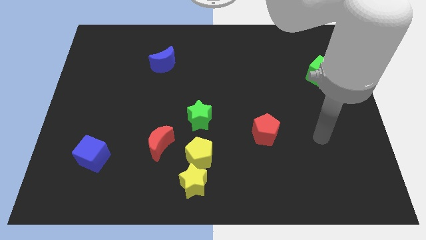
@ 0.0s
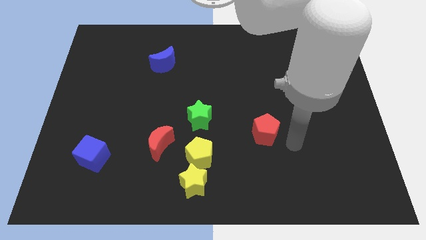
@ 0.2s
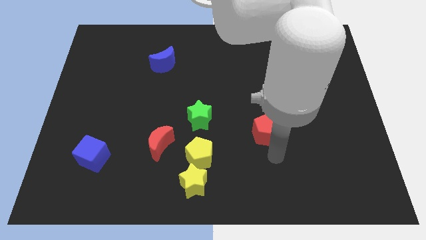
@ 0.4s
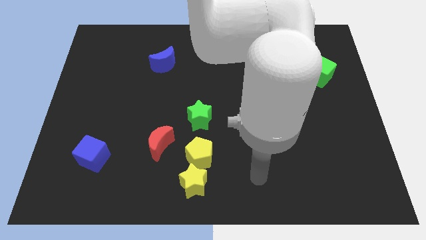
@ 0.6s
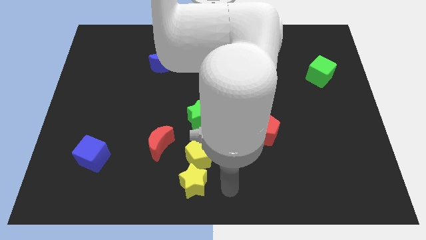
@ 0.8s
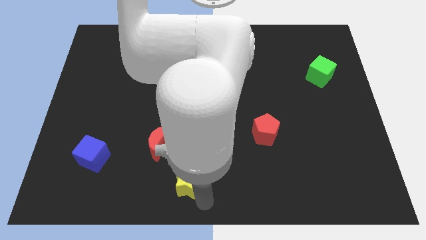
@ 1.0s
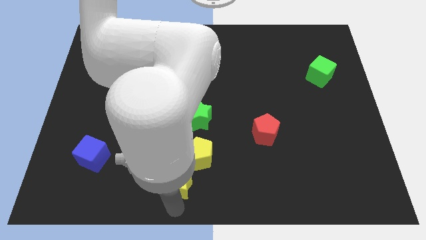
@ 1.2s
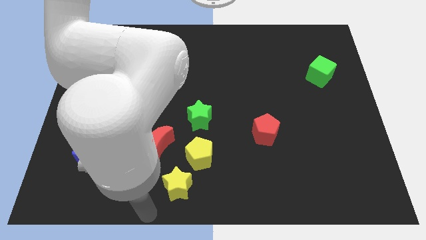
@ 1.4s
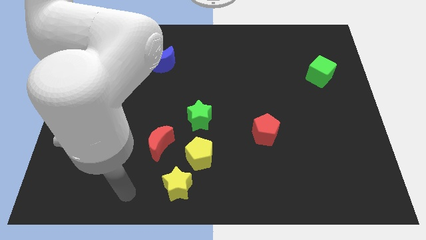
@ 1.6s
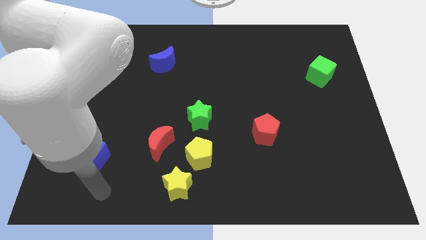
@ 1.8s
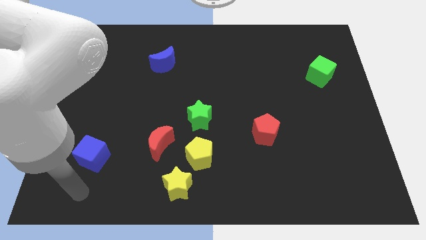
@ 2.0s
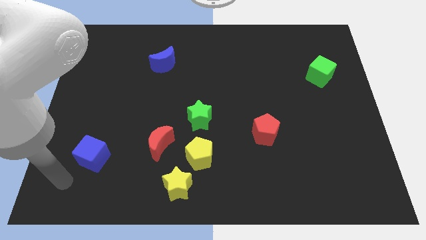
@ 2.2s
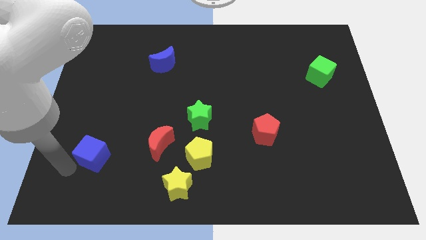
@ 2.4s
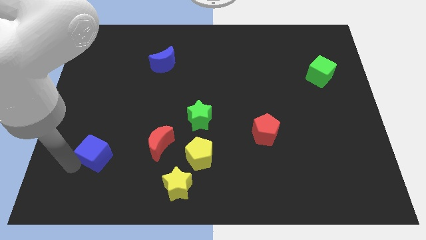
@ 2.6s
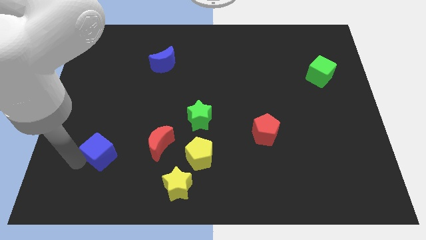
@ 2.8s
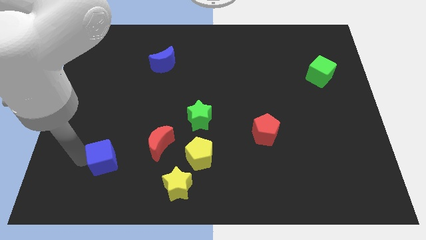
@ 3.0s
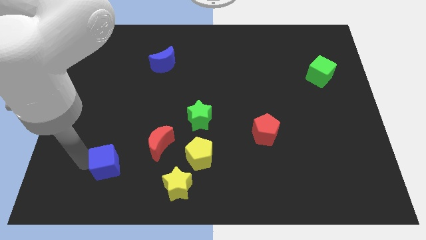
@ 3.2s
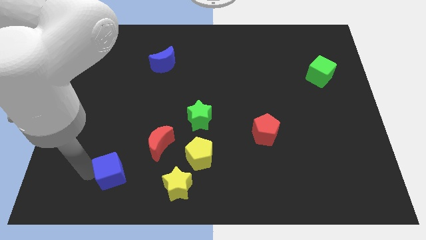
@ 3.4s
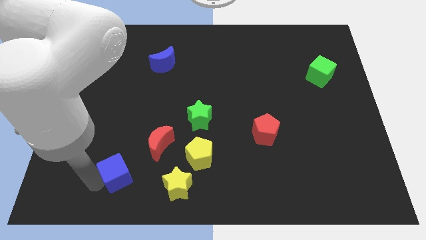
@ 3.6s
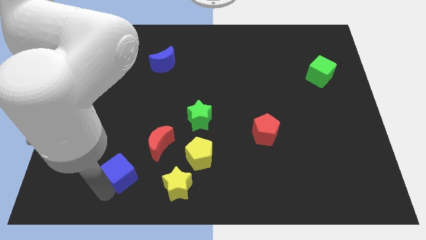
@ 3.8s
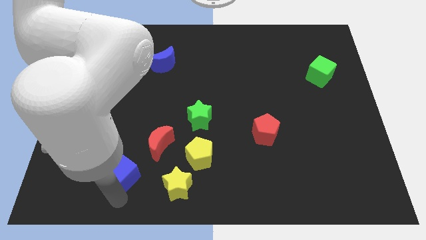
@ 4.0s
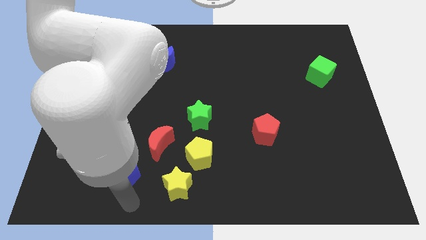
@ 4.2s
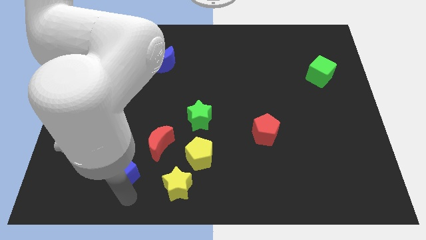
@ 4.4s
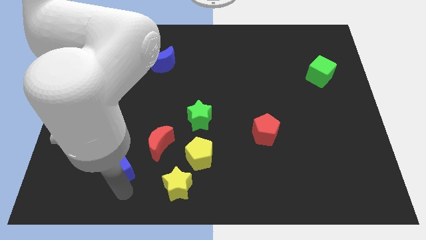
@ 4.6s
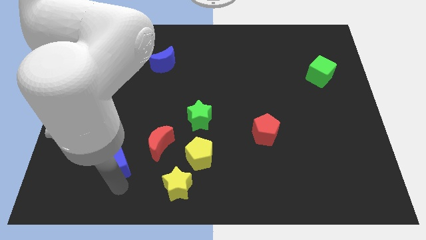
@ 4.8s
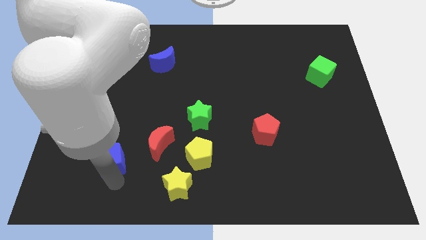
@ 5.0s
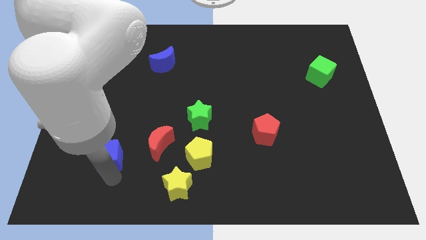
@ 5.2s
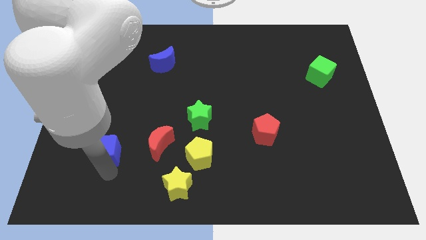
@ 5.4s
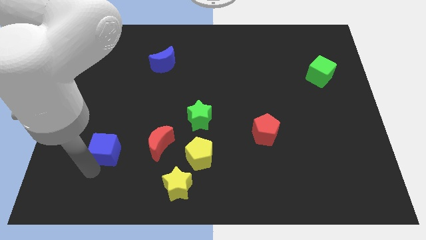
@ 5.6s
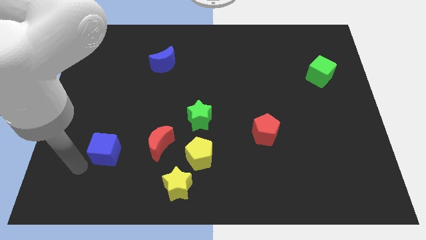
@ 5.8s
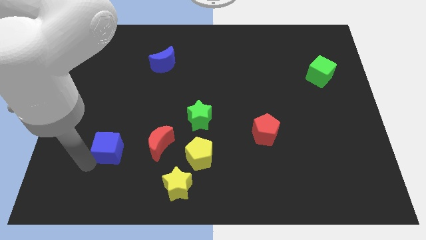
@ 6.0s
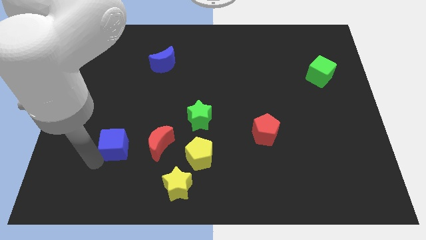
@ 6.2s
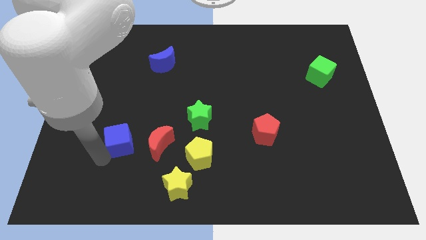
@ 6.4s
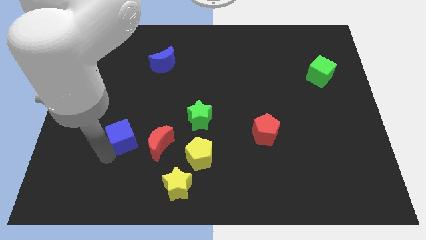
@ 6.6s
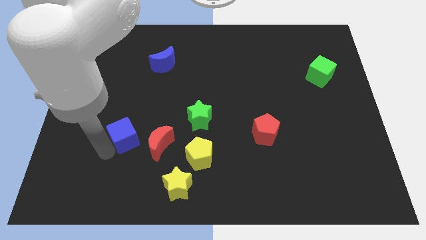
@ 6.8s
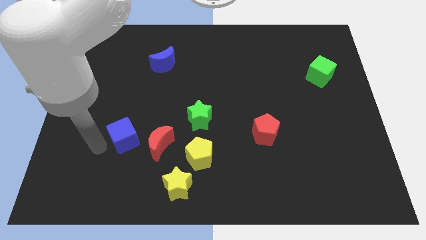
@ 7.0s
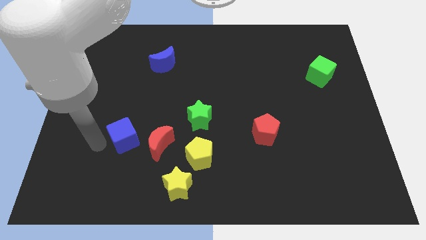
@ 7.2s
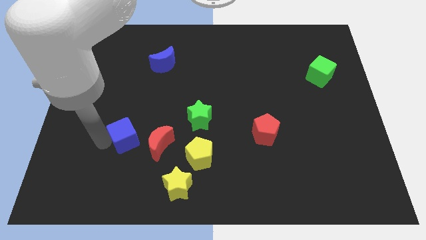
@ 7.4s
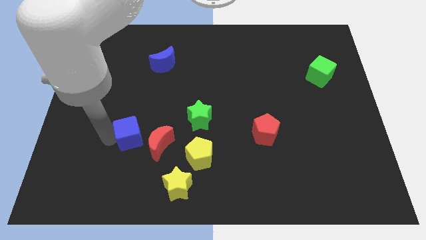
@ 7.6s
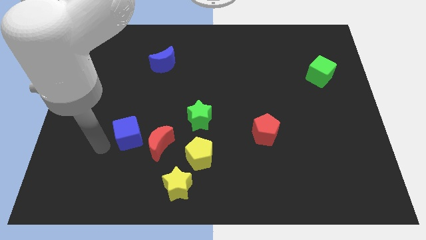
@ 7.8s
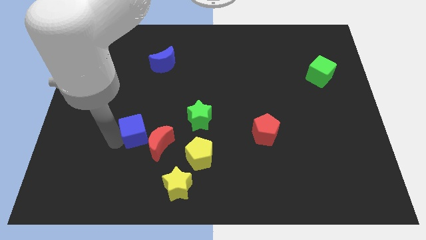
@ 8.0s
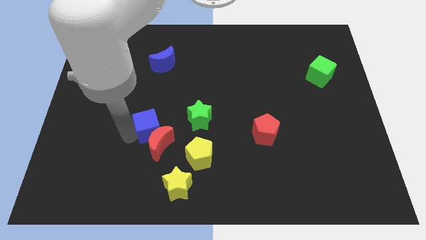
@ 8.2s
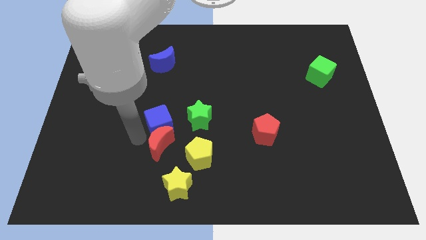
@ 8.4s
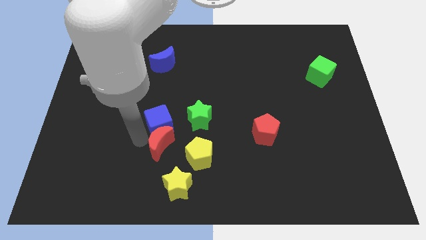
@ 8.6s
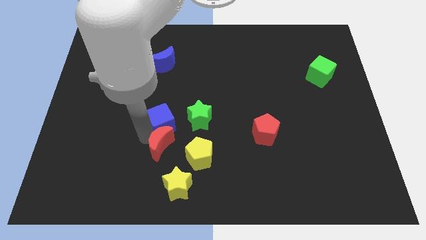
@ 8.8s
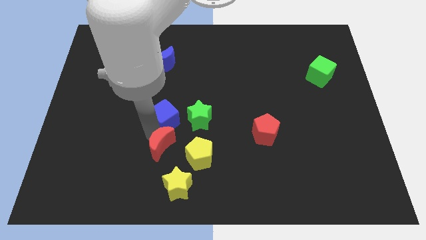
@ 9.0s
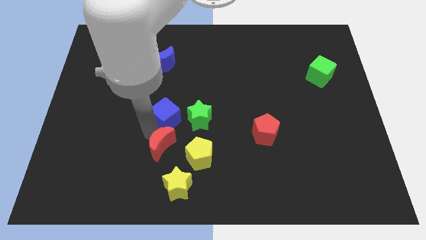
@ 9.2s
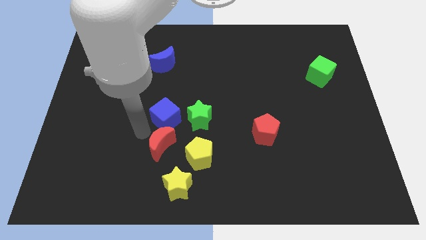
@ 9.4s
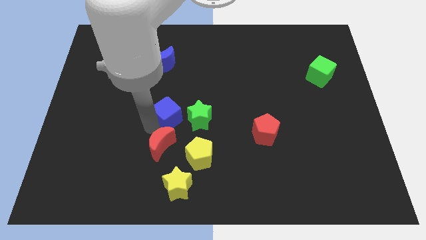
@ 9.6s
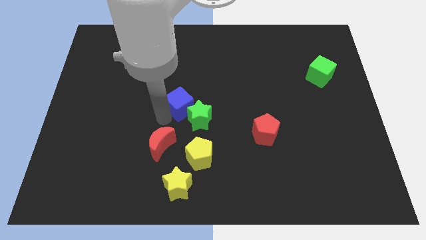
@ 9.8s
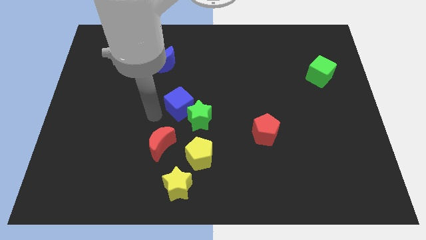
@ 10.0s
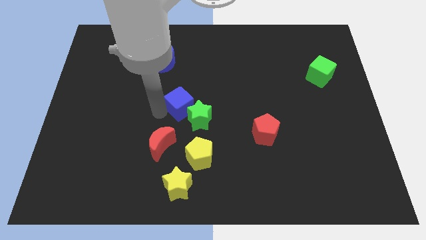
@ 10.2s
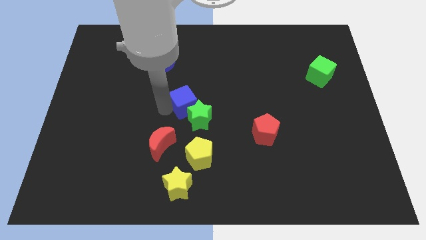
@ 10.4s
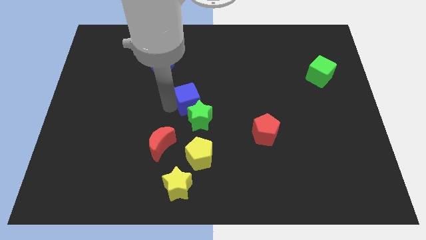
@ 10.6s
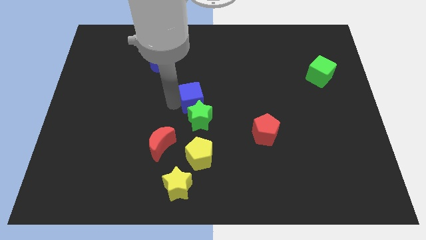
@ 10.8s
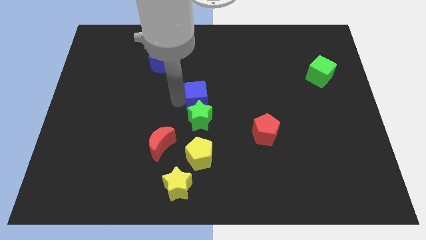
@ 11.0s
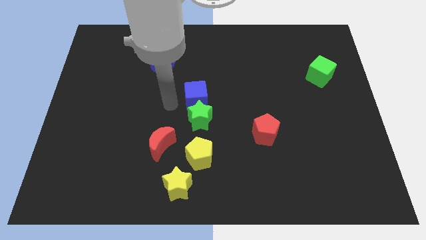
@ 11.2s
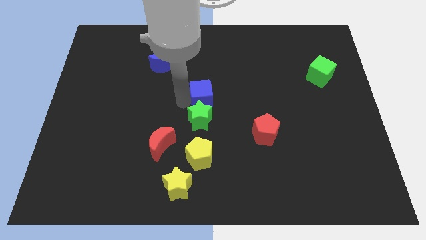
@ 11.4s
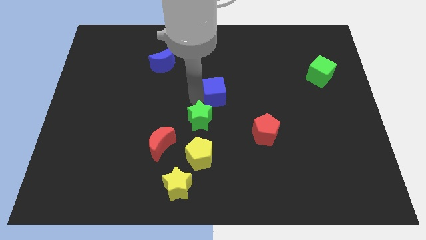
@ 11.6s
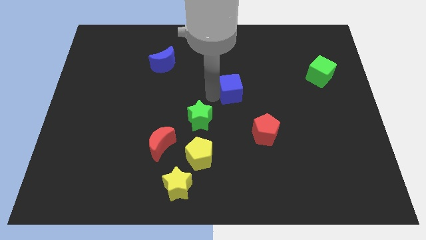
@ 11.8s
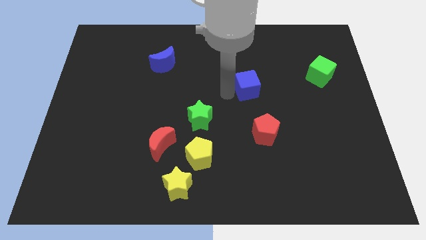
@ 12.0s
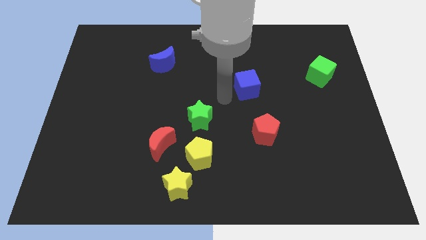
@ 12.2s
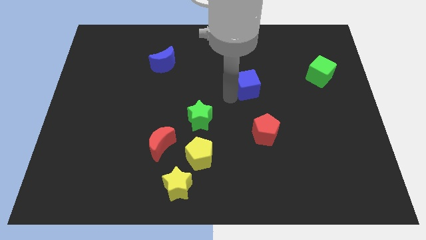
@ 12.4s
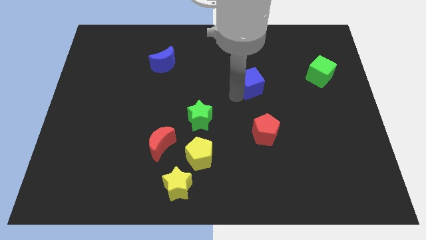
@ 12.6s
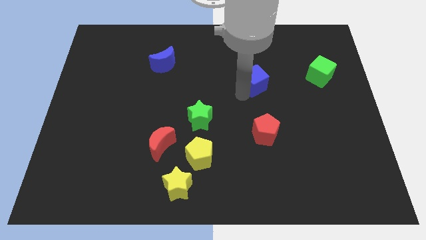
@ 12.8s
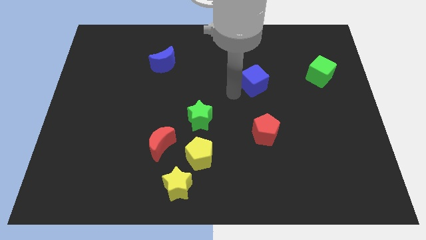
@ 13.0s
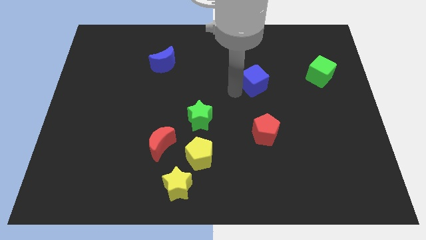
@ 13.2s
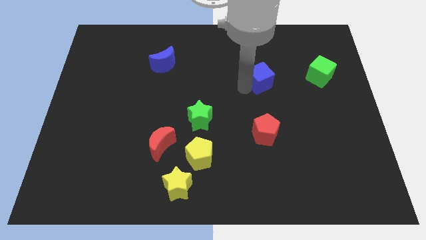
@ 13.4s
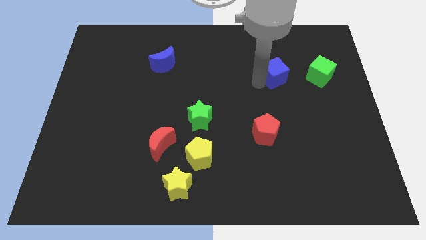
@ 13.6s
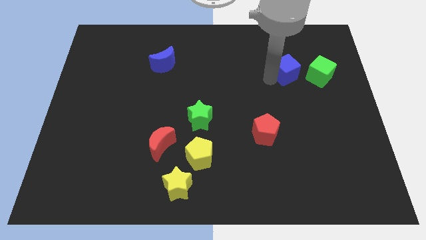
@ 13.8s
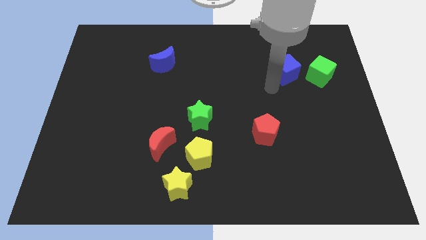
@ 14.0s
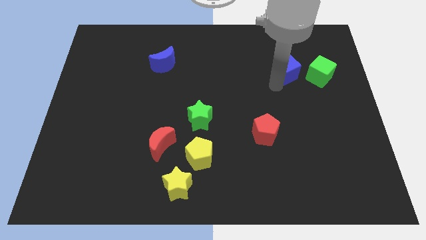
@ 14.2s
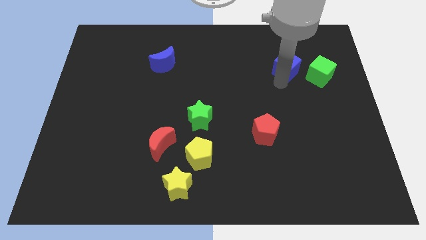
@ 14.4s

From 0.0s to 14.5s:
slide the blue cube to the top left side of the green cube
